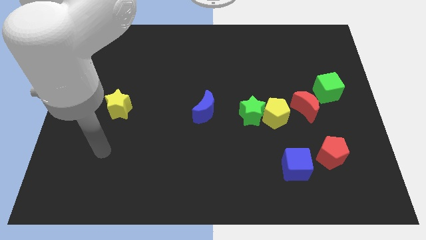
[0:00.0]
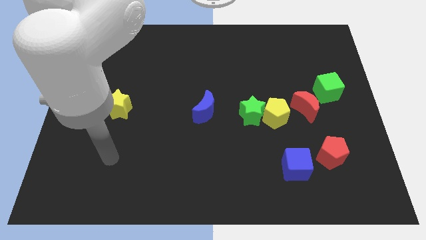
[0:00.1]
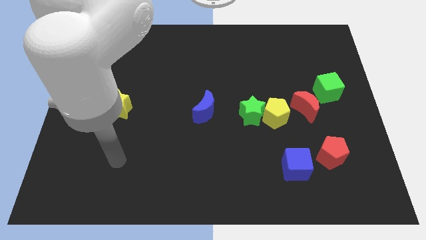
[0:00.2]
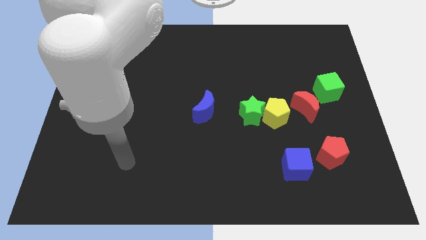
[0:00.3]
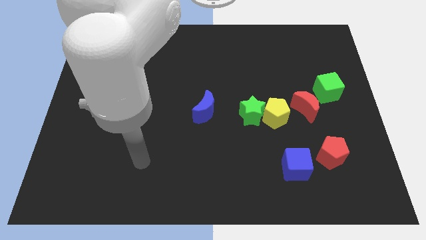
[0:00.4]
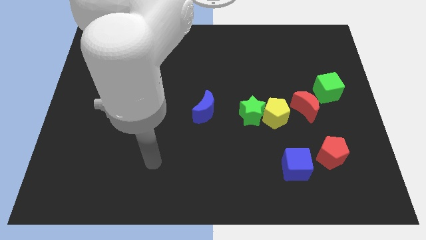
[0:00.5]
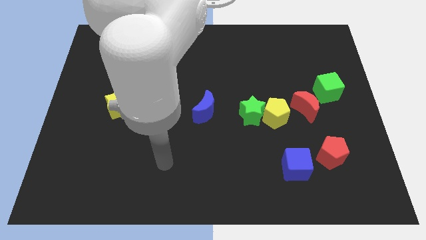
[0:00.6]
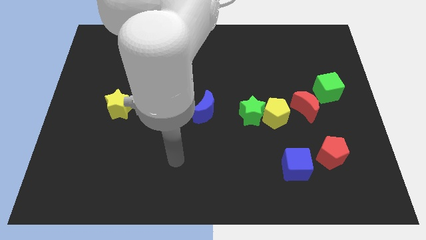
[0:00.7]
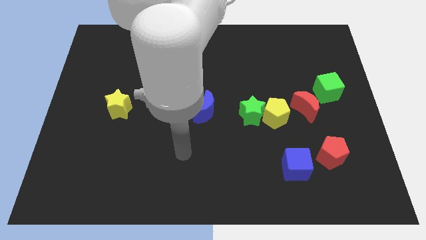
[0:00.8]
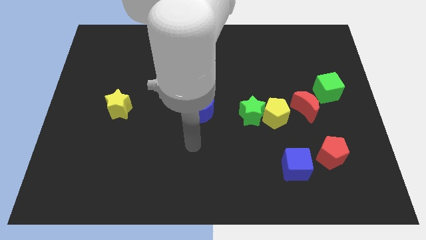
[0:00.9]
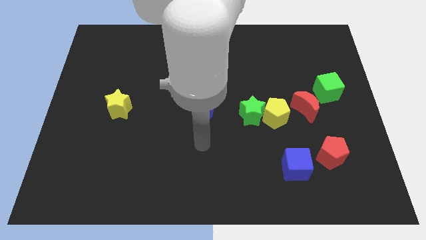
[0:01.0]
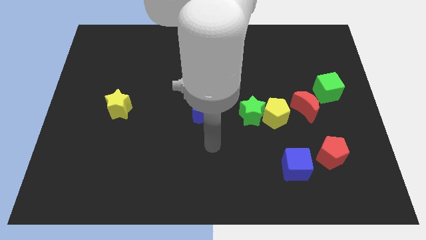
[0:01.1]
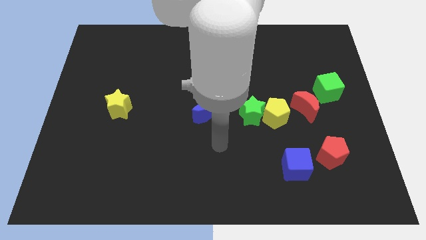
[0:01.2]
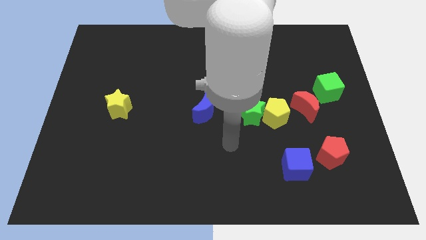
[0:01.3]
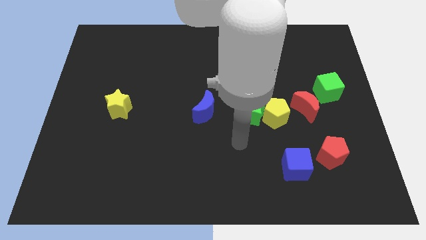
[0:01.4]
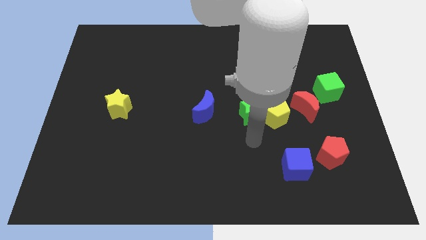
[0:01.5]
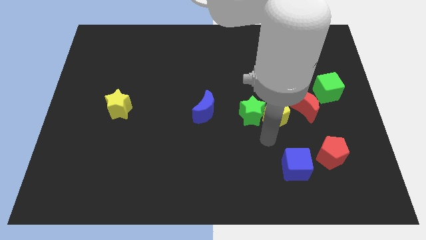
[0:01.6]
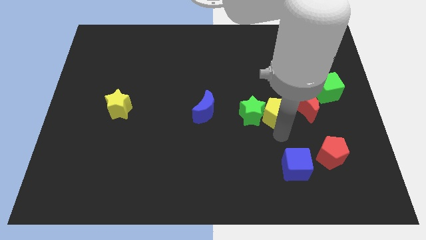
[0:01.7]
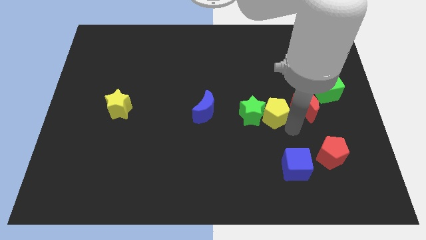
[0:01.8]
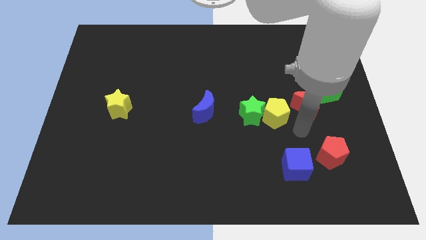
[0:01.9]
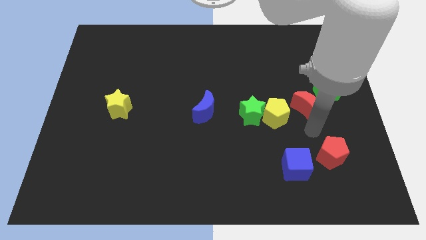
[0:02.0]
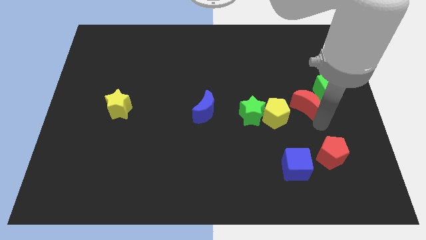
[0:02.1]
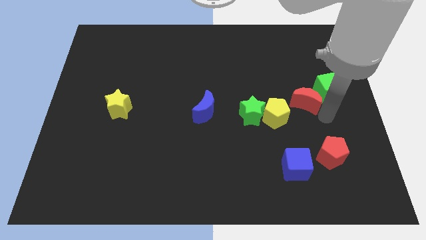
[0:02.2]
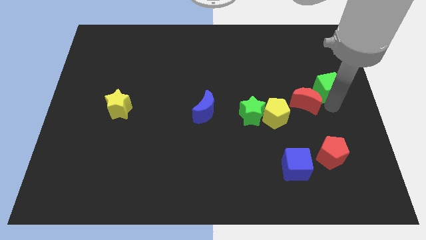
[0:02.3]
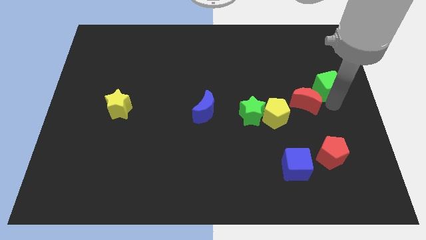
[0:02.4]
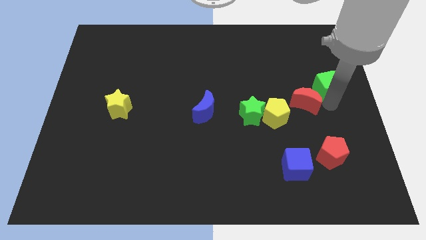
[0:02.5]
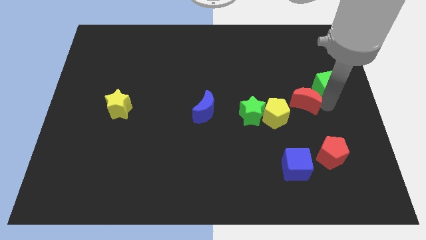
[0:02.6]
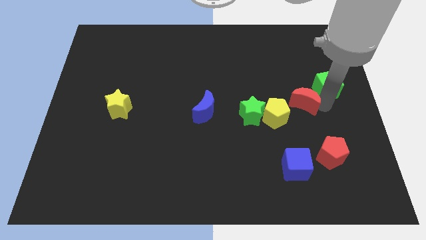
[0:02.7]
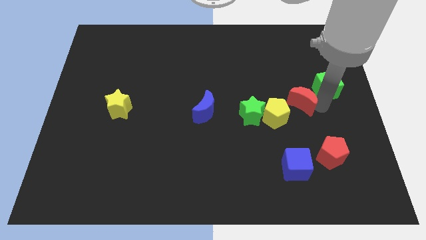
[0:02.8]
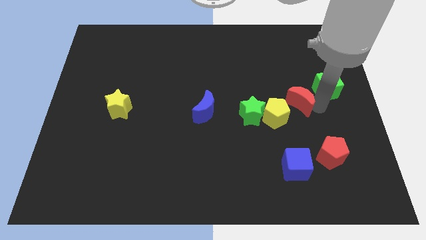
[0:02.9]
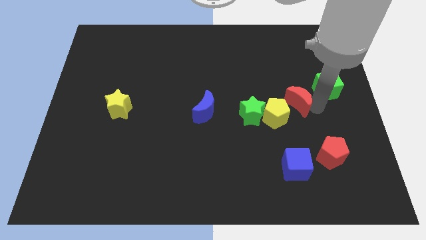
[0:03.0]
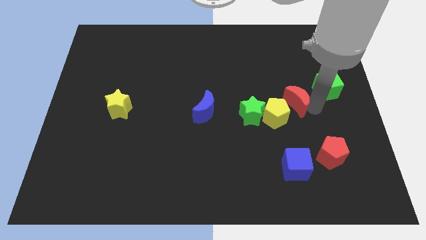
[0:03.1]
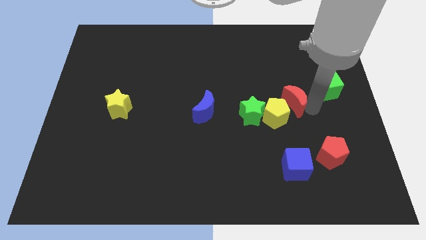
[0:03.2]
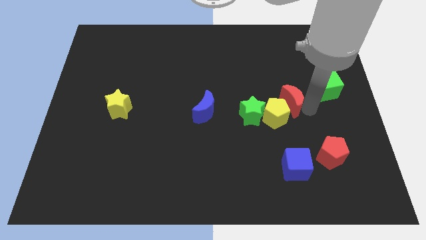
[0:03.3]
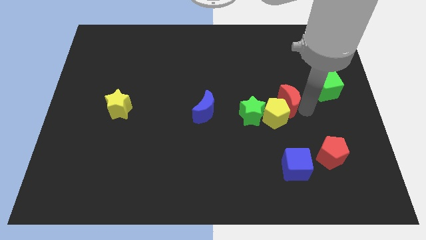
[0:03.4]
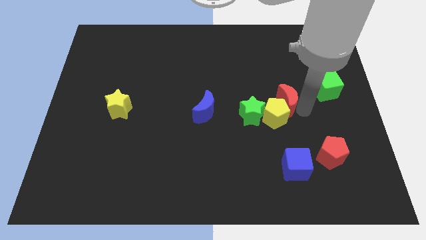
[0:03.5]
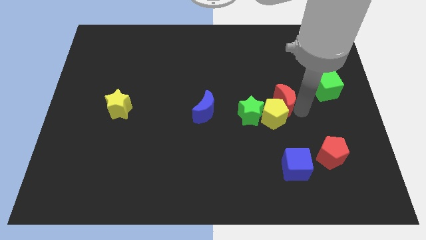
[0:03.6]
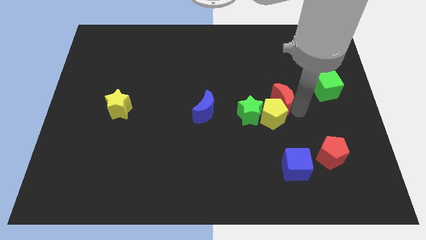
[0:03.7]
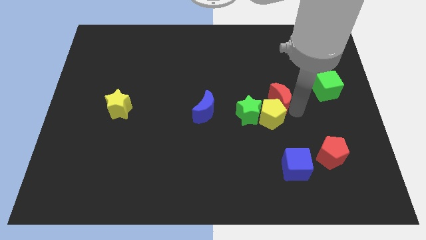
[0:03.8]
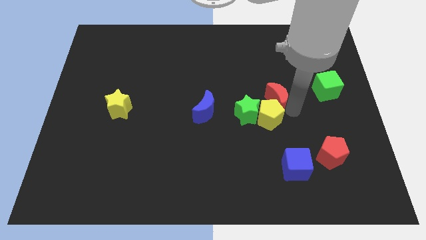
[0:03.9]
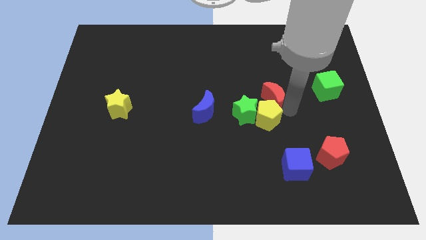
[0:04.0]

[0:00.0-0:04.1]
slightly slide the red moon left

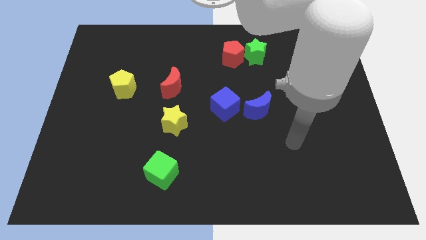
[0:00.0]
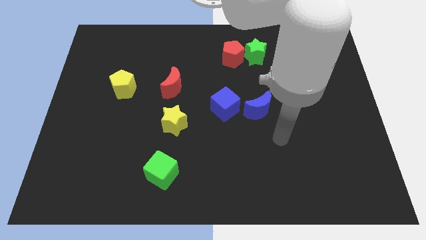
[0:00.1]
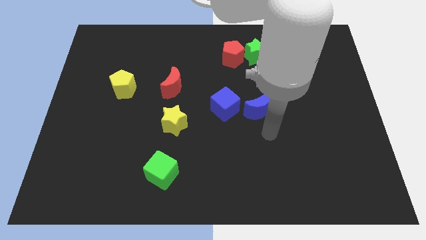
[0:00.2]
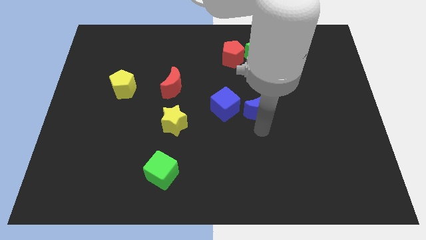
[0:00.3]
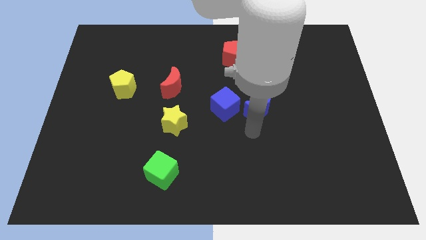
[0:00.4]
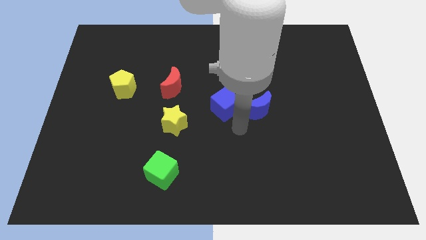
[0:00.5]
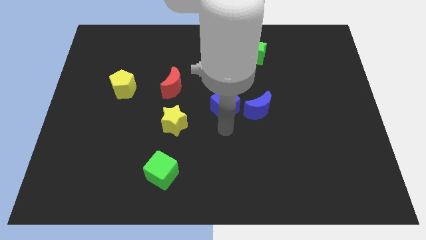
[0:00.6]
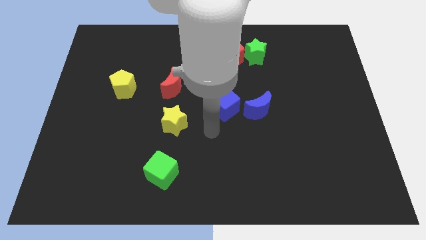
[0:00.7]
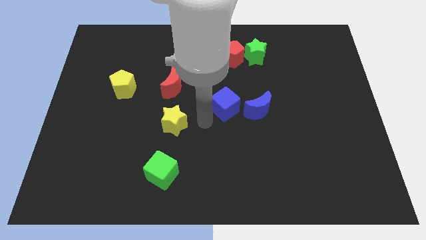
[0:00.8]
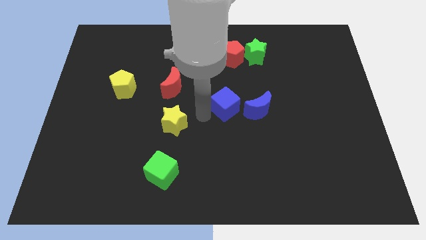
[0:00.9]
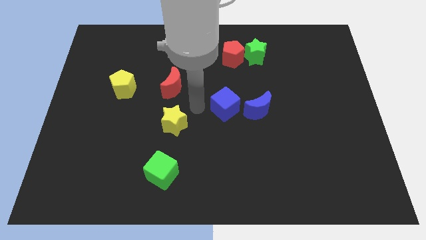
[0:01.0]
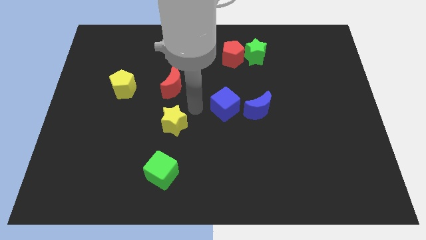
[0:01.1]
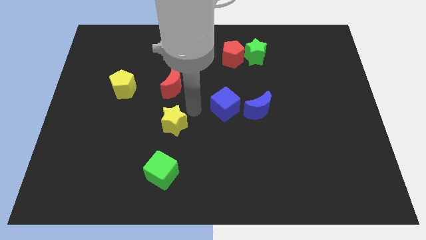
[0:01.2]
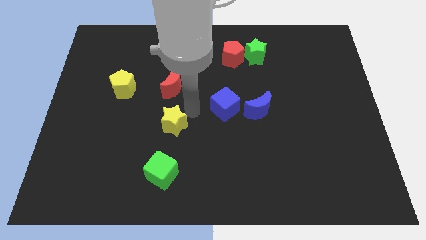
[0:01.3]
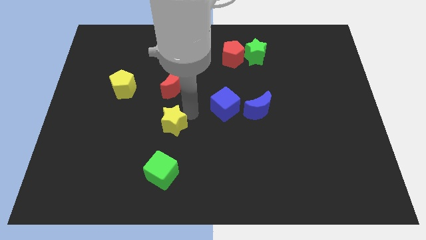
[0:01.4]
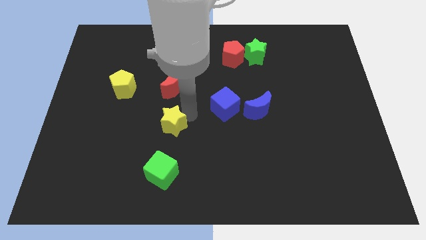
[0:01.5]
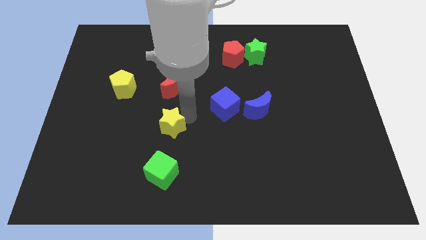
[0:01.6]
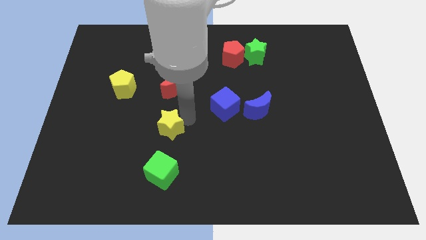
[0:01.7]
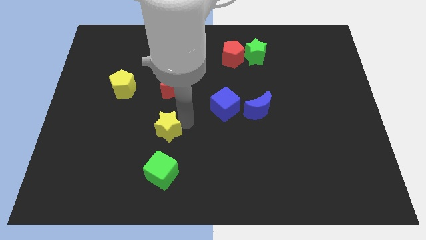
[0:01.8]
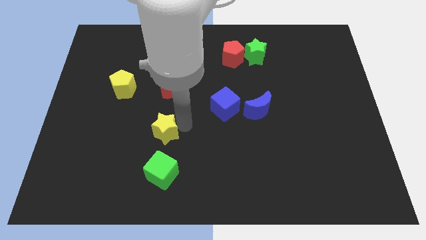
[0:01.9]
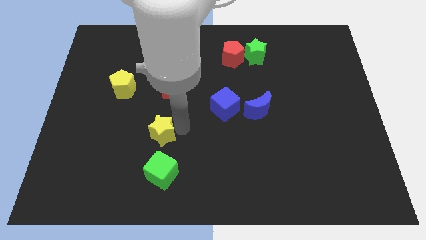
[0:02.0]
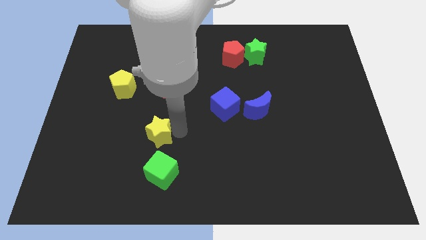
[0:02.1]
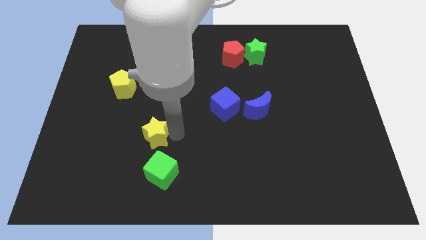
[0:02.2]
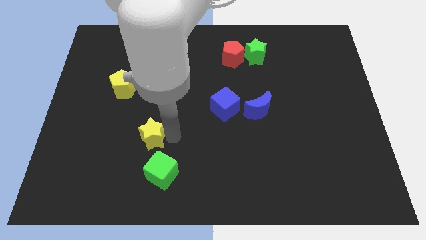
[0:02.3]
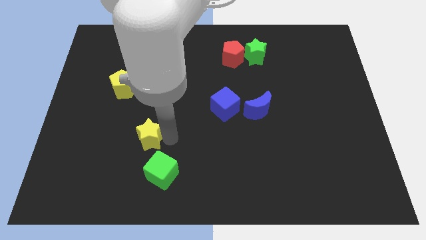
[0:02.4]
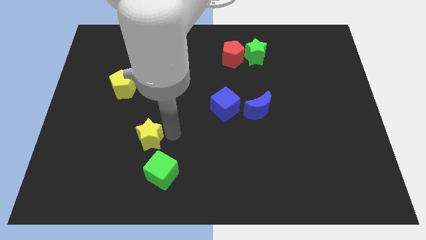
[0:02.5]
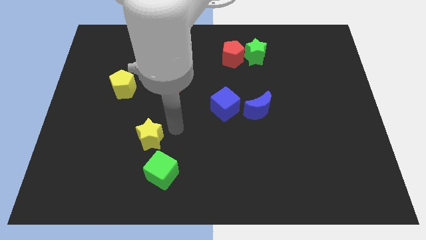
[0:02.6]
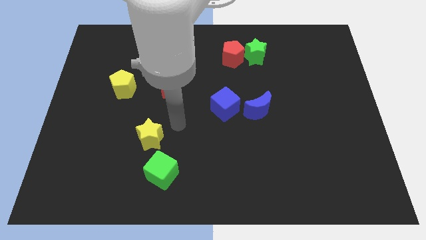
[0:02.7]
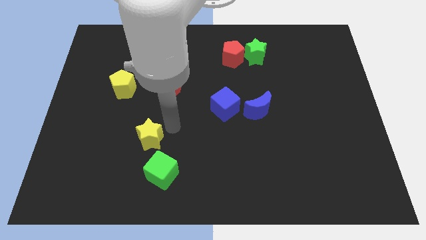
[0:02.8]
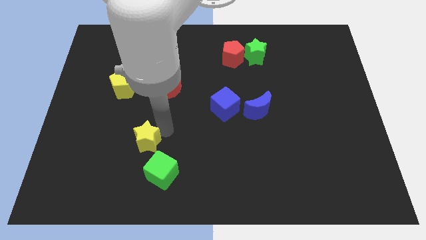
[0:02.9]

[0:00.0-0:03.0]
slightly push the yellow star down and left diagonally

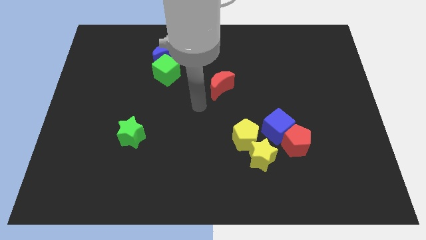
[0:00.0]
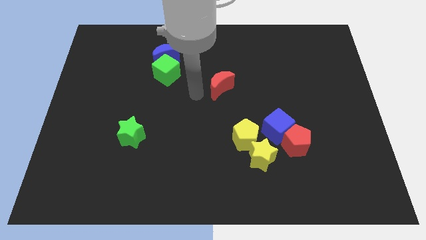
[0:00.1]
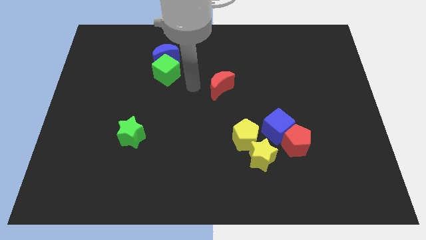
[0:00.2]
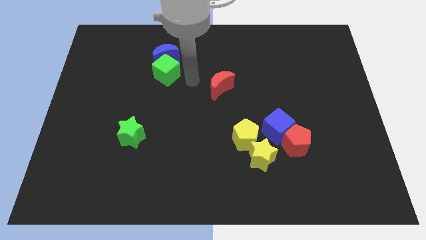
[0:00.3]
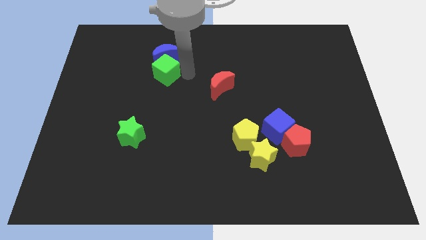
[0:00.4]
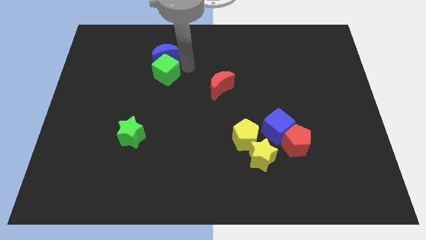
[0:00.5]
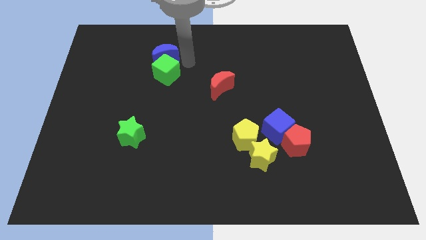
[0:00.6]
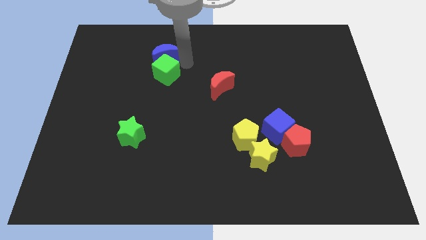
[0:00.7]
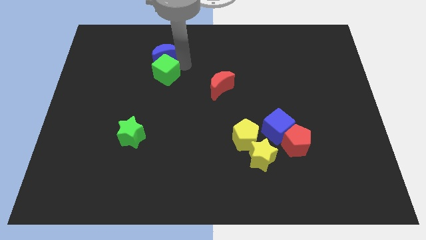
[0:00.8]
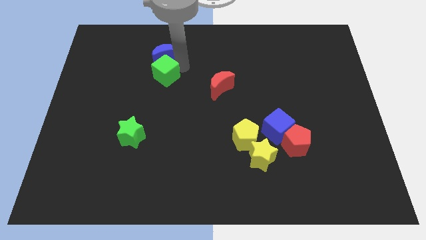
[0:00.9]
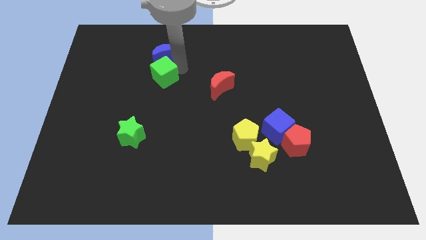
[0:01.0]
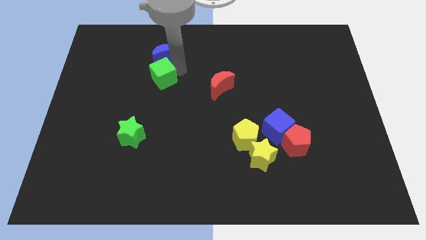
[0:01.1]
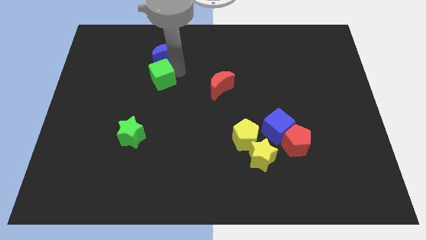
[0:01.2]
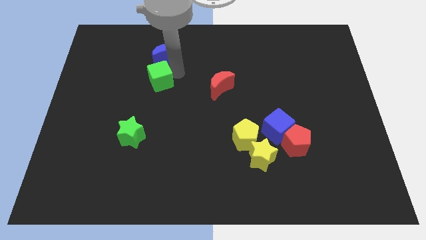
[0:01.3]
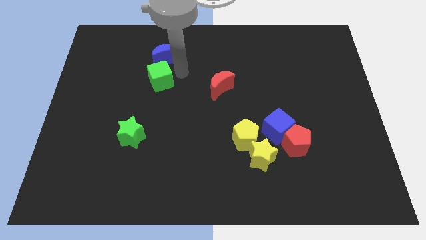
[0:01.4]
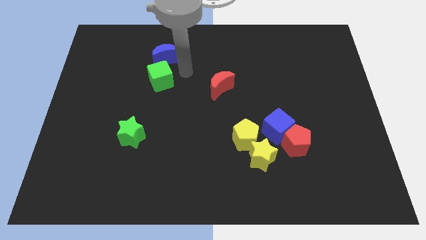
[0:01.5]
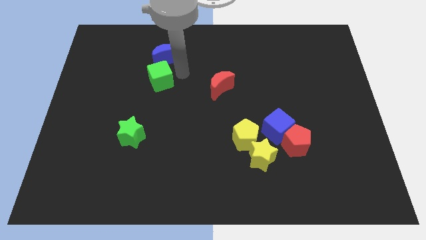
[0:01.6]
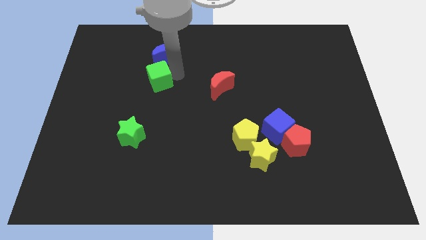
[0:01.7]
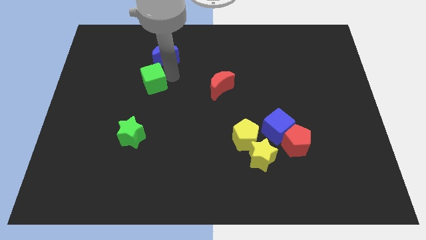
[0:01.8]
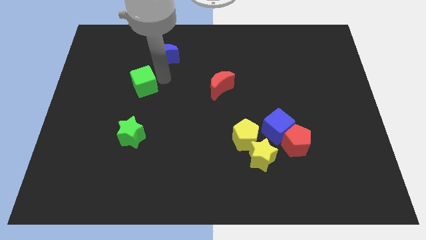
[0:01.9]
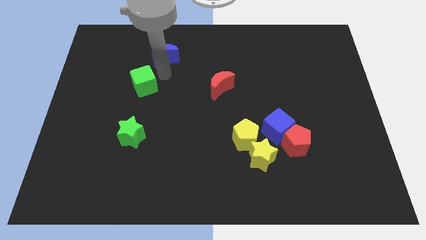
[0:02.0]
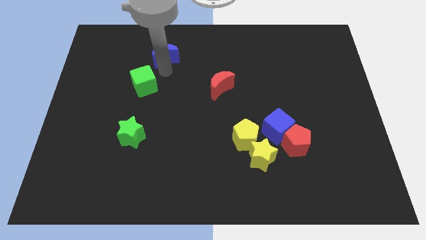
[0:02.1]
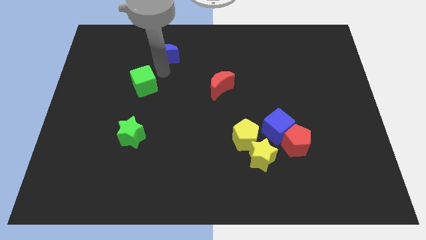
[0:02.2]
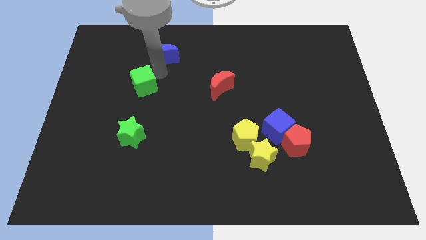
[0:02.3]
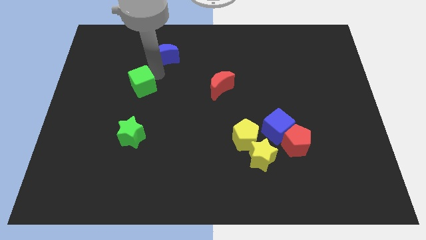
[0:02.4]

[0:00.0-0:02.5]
slide the green cube slightly down and then to the left
